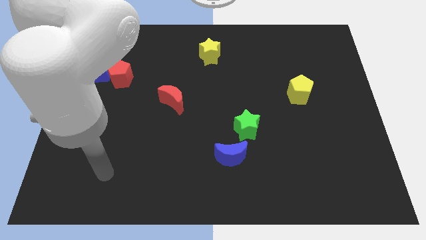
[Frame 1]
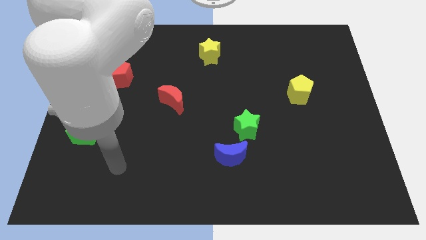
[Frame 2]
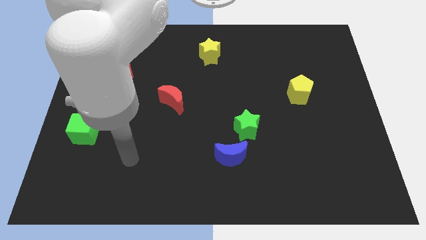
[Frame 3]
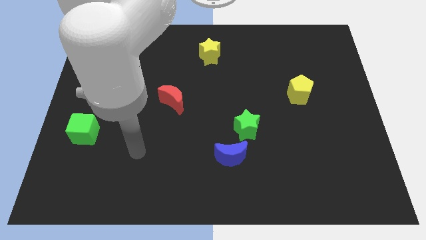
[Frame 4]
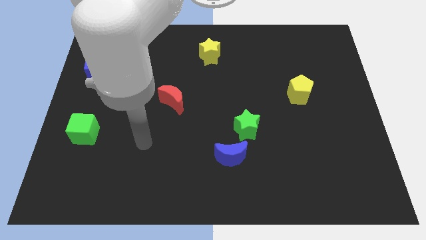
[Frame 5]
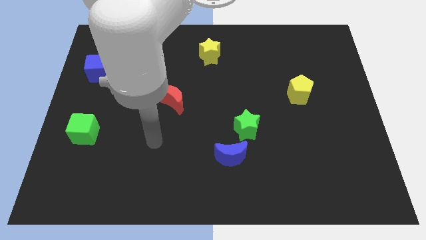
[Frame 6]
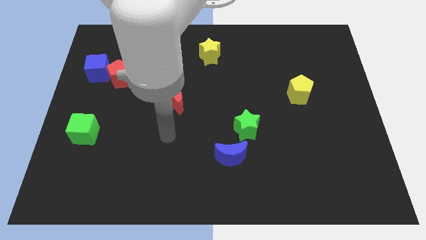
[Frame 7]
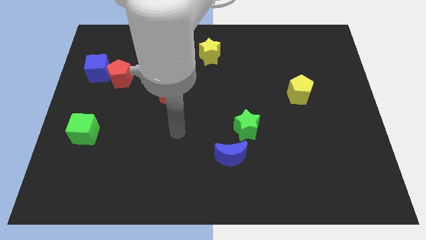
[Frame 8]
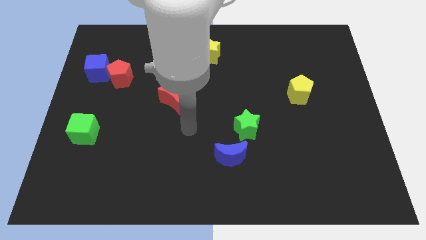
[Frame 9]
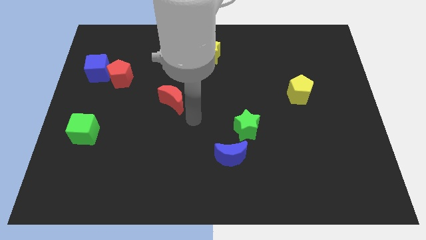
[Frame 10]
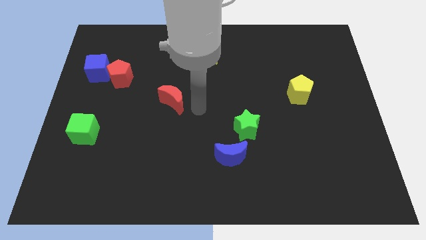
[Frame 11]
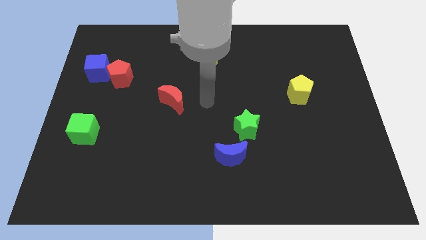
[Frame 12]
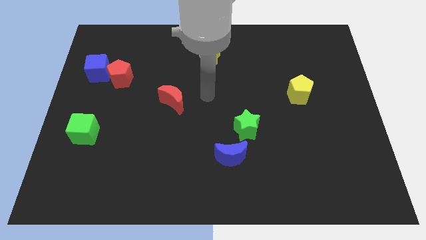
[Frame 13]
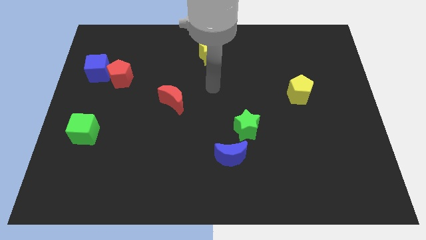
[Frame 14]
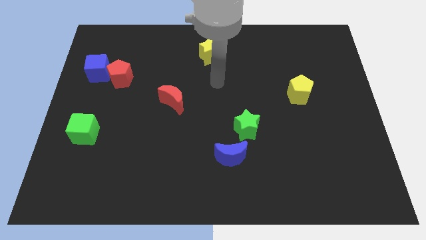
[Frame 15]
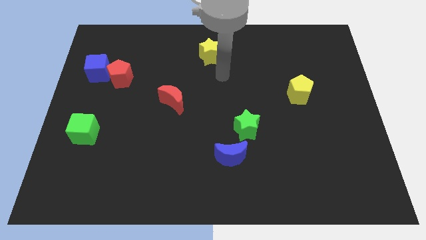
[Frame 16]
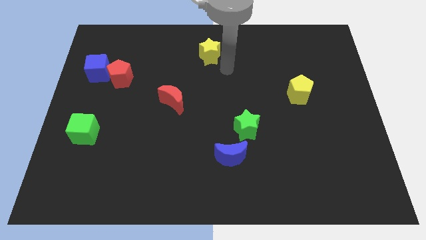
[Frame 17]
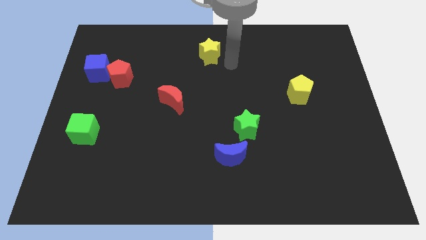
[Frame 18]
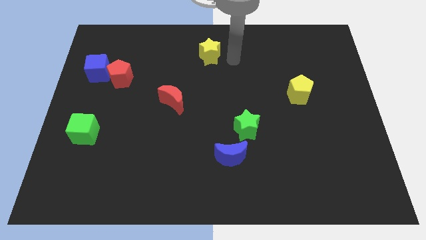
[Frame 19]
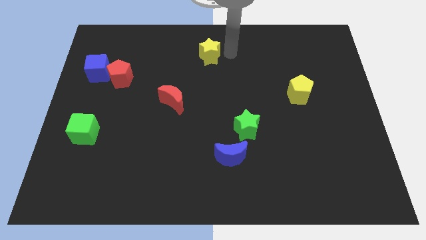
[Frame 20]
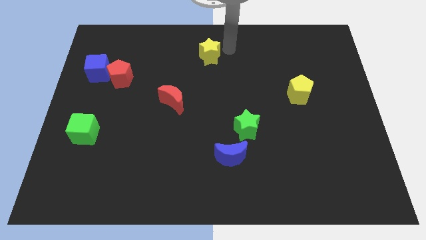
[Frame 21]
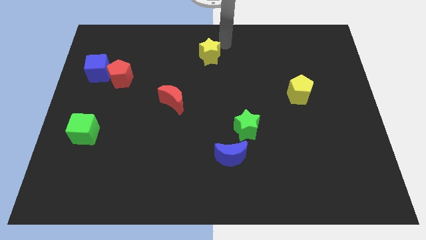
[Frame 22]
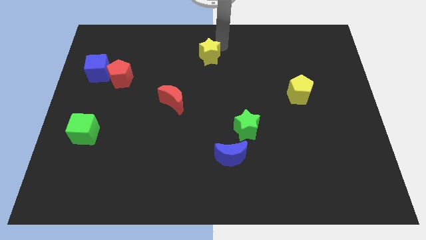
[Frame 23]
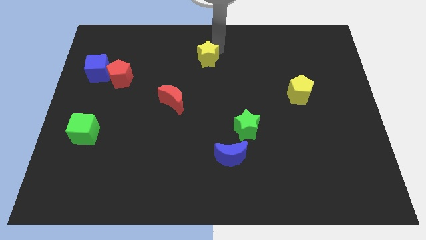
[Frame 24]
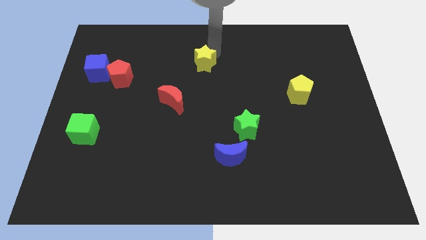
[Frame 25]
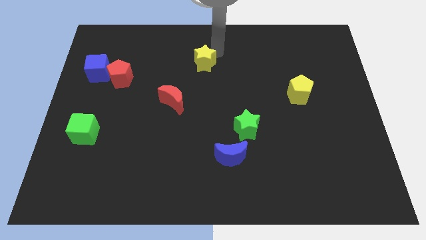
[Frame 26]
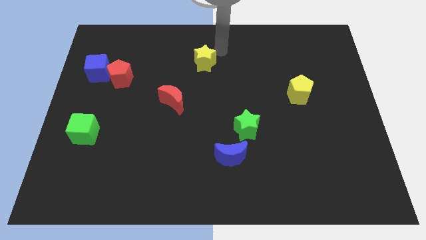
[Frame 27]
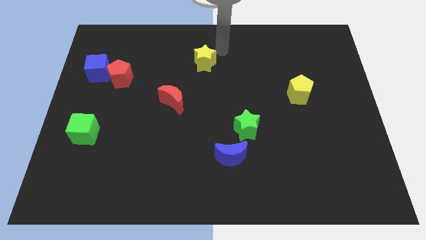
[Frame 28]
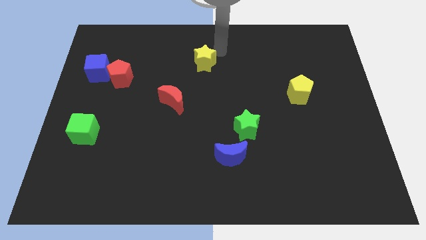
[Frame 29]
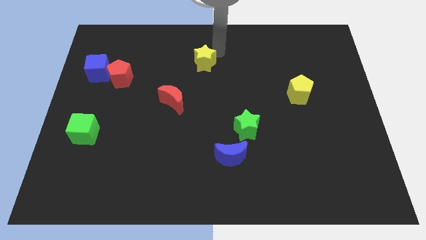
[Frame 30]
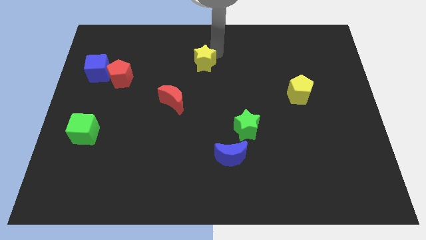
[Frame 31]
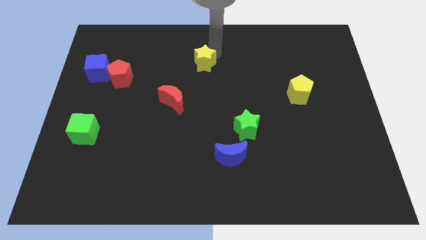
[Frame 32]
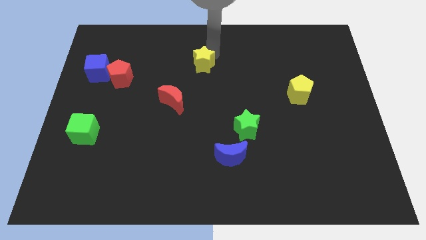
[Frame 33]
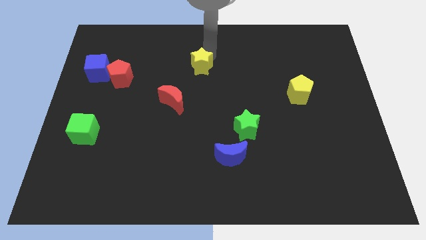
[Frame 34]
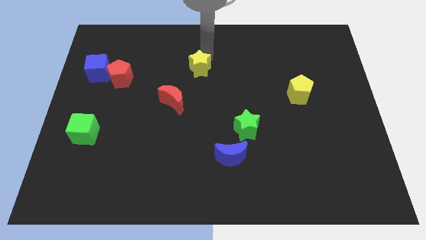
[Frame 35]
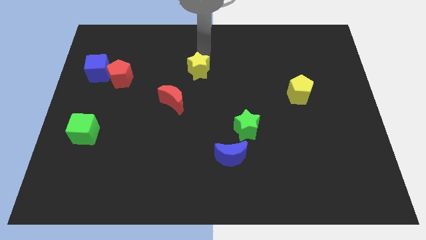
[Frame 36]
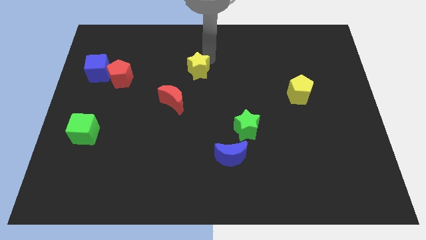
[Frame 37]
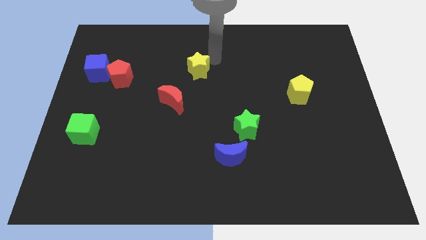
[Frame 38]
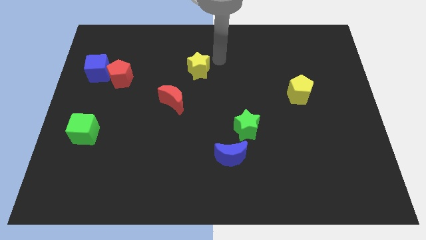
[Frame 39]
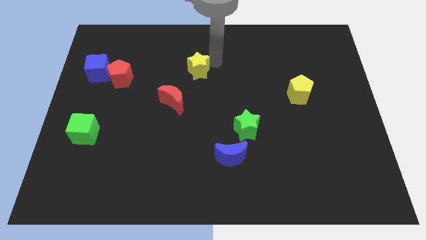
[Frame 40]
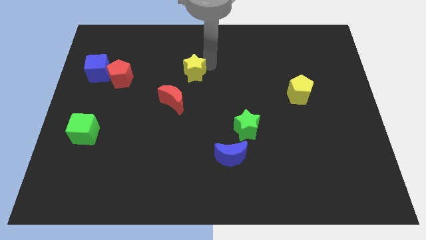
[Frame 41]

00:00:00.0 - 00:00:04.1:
push the yellow star downwards and left diagonally somewhat

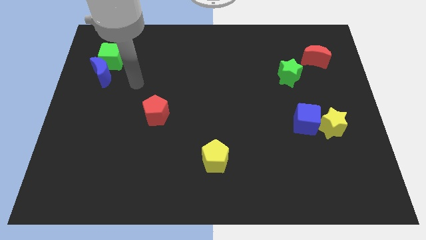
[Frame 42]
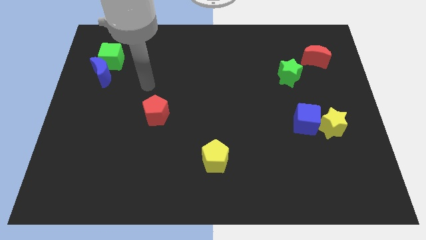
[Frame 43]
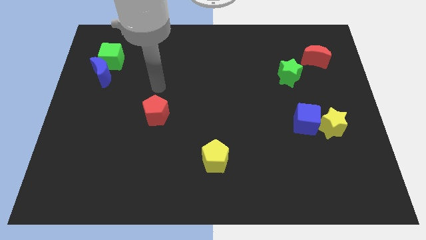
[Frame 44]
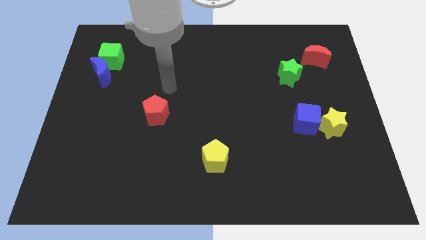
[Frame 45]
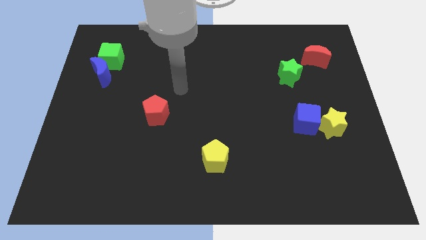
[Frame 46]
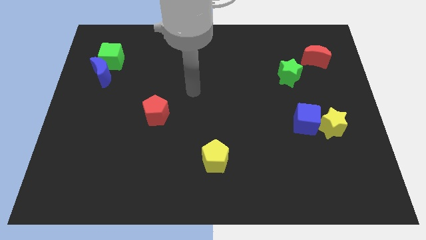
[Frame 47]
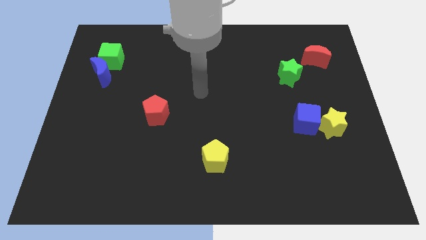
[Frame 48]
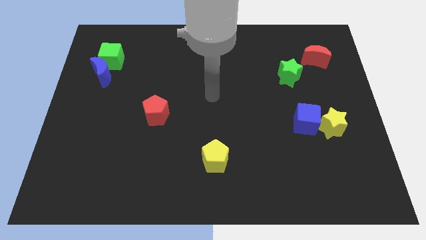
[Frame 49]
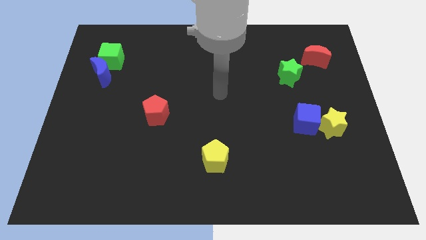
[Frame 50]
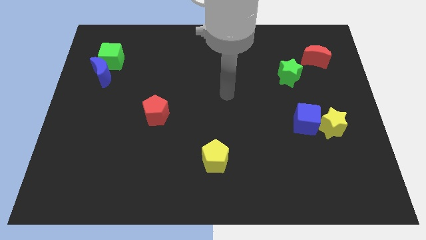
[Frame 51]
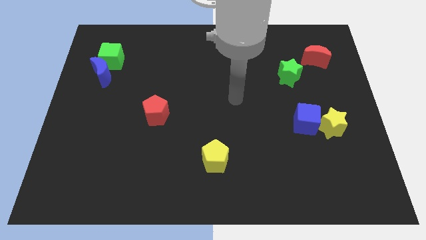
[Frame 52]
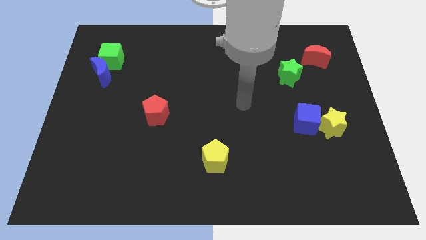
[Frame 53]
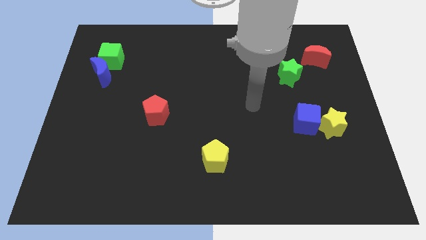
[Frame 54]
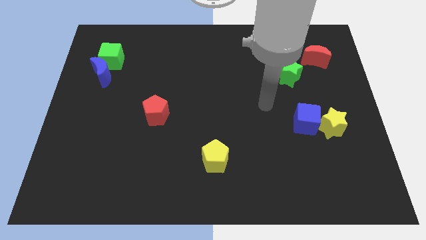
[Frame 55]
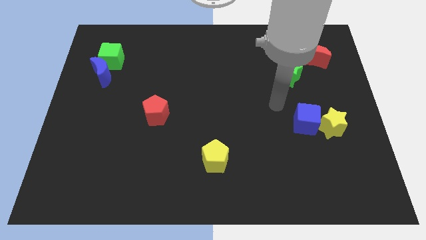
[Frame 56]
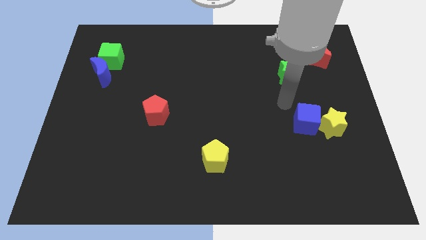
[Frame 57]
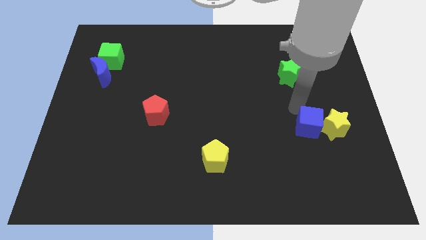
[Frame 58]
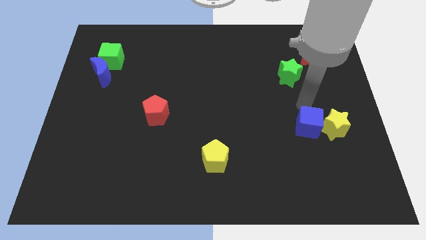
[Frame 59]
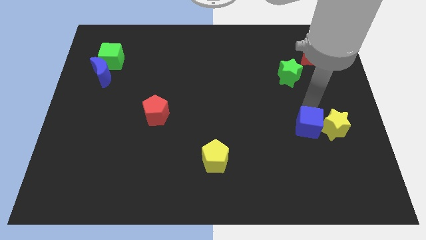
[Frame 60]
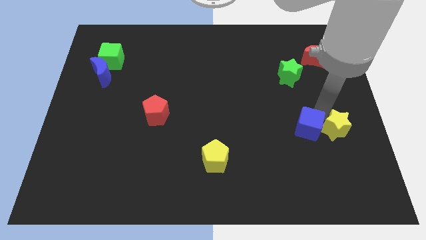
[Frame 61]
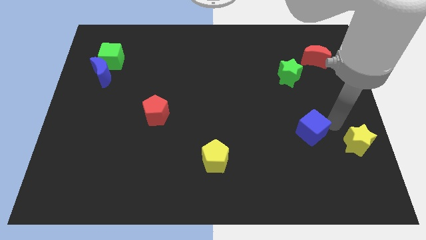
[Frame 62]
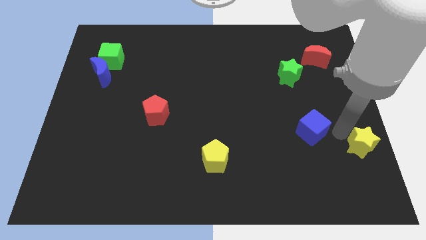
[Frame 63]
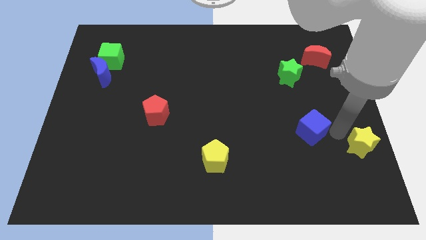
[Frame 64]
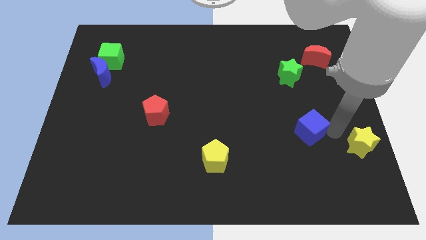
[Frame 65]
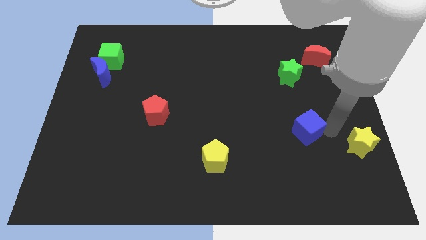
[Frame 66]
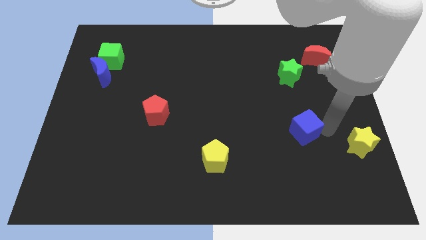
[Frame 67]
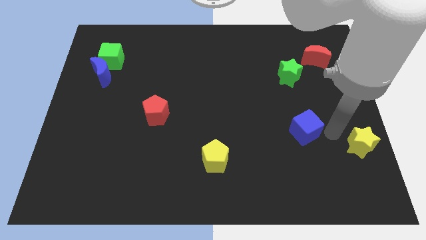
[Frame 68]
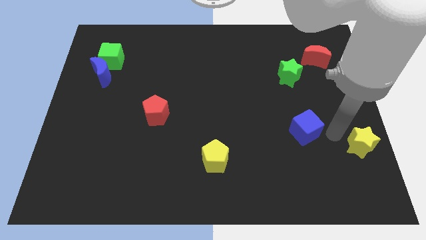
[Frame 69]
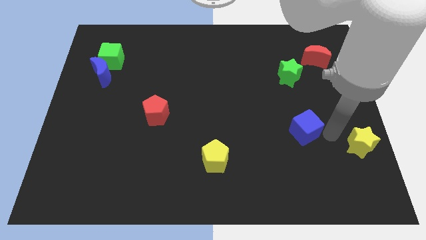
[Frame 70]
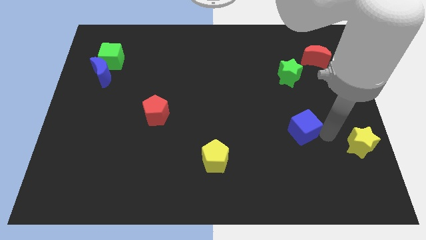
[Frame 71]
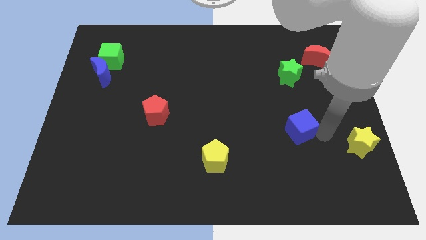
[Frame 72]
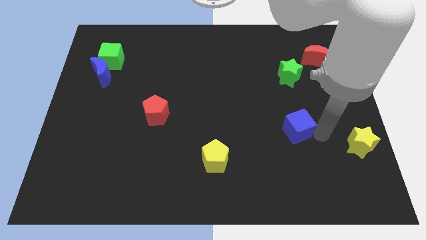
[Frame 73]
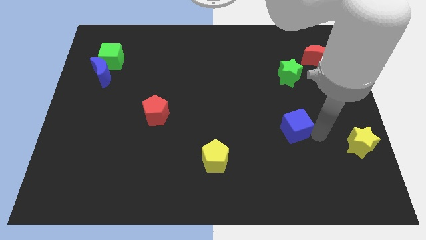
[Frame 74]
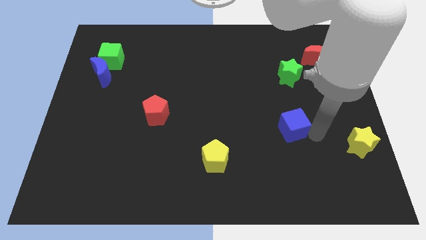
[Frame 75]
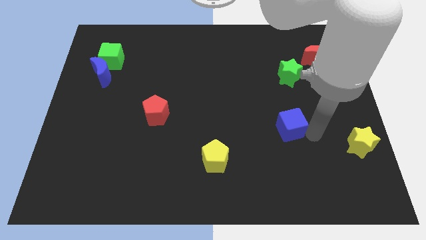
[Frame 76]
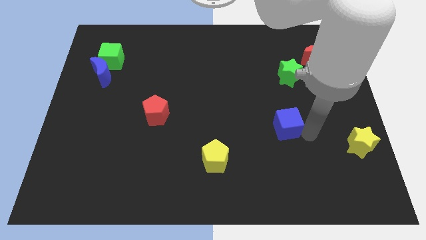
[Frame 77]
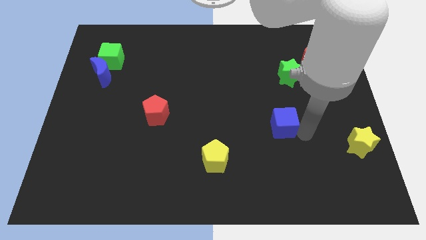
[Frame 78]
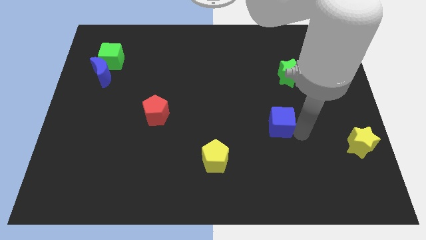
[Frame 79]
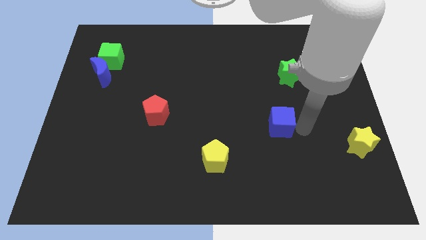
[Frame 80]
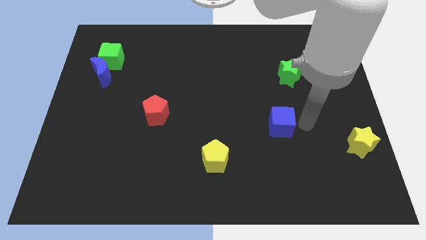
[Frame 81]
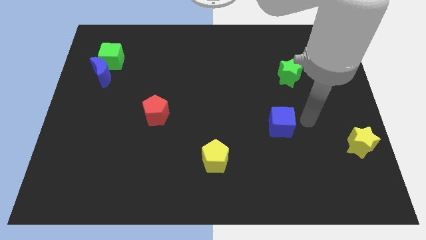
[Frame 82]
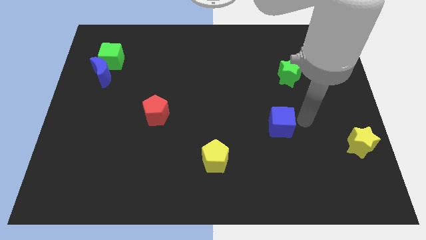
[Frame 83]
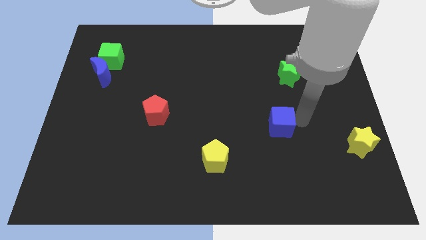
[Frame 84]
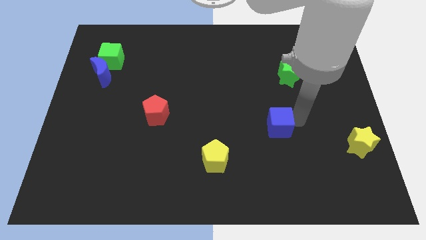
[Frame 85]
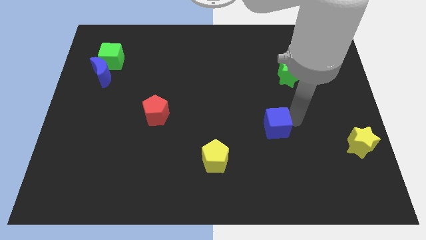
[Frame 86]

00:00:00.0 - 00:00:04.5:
slightly move the blue cube to the left
